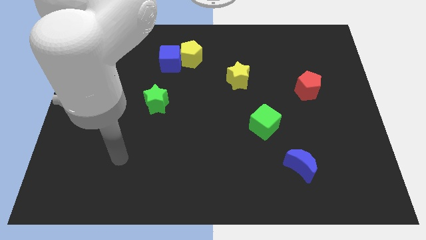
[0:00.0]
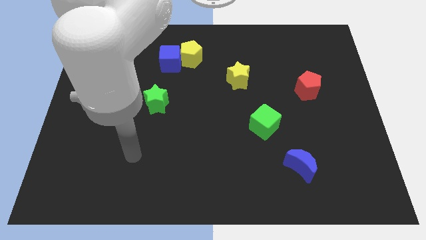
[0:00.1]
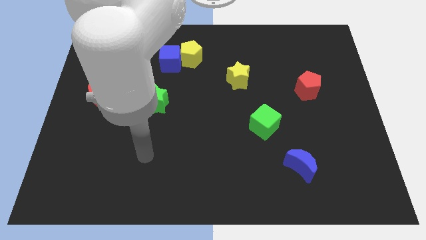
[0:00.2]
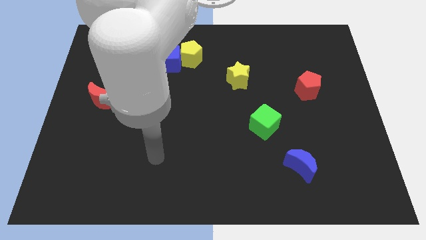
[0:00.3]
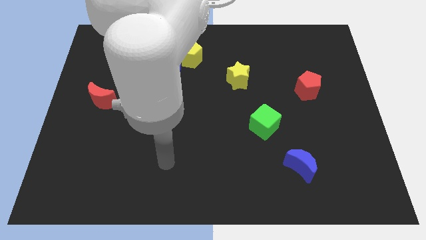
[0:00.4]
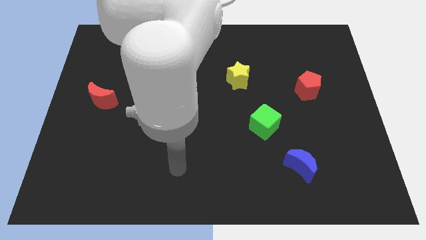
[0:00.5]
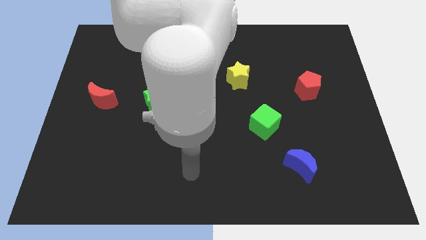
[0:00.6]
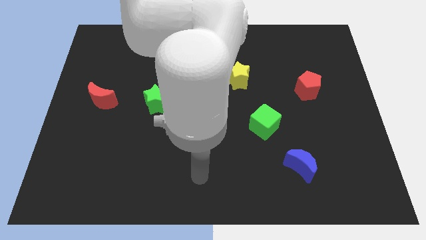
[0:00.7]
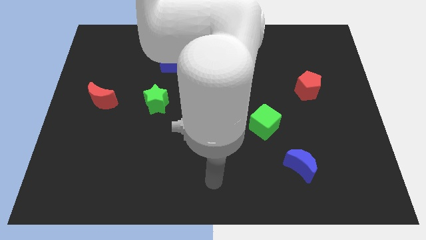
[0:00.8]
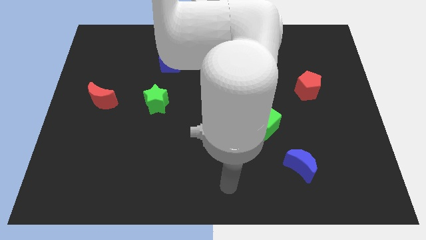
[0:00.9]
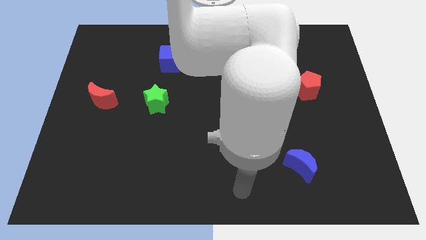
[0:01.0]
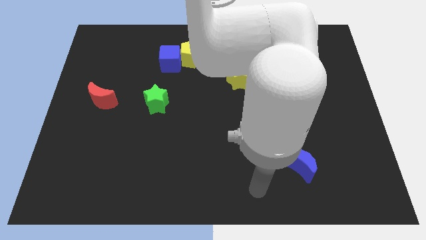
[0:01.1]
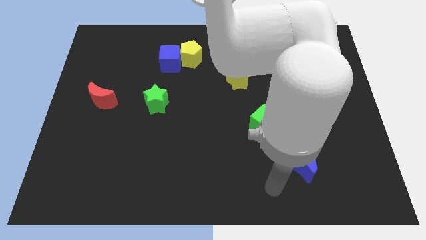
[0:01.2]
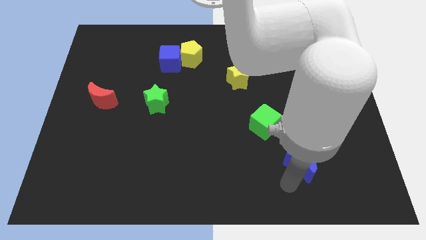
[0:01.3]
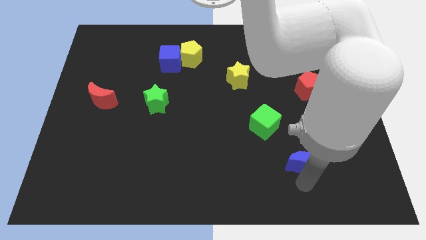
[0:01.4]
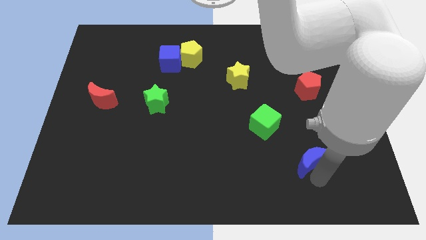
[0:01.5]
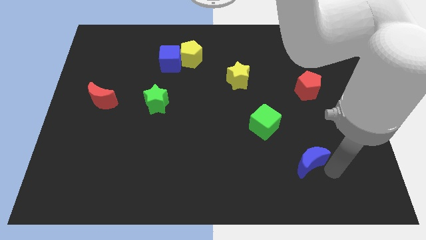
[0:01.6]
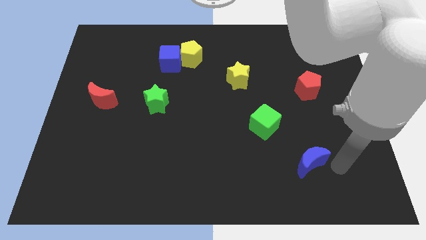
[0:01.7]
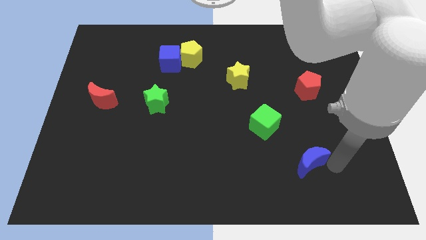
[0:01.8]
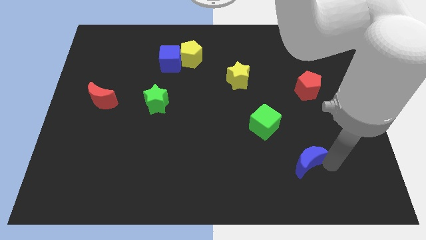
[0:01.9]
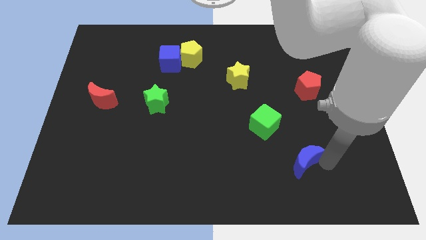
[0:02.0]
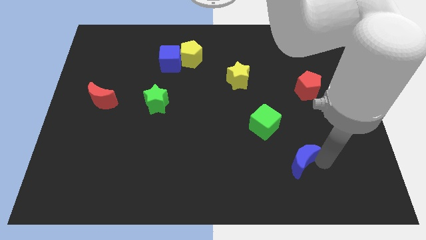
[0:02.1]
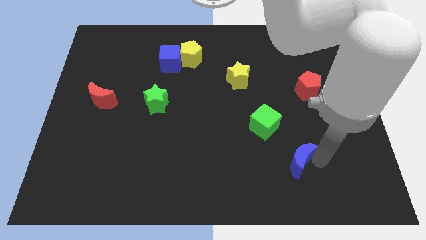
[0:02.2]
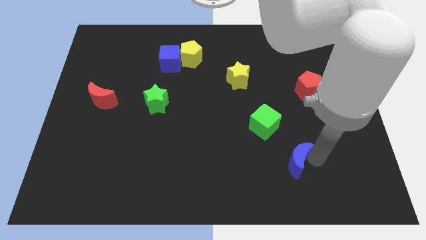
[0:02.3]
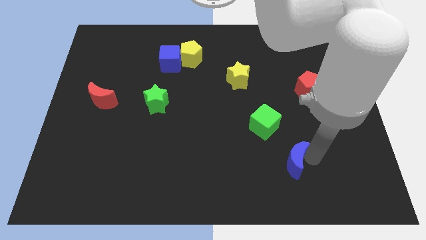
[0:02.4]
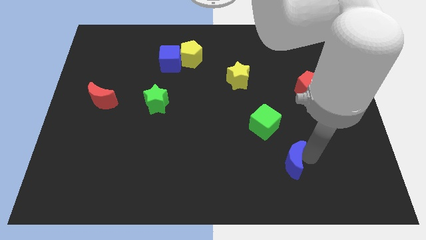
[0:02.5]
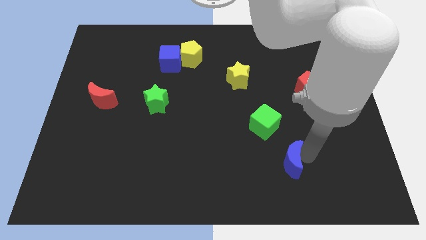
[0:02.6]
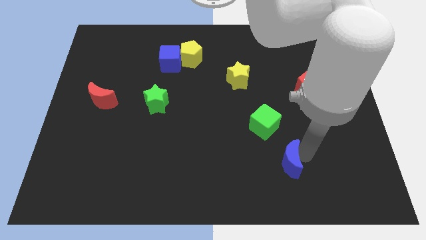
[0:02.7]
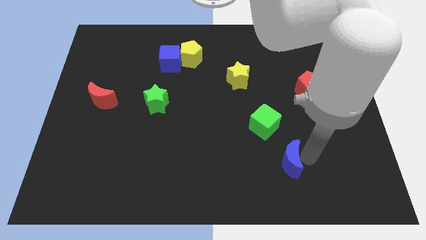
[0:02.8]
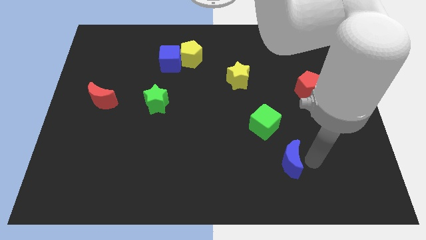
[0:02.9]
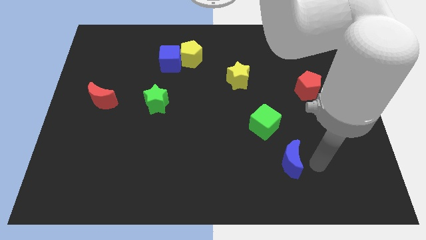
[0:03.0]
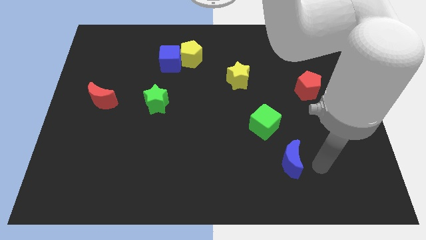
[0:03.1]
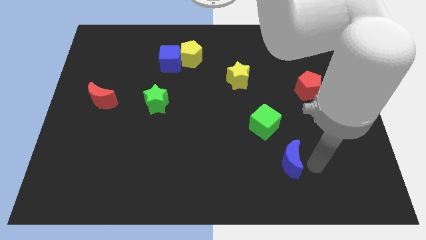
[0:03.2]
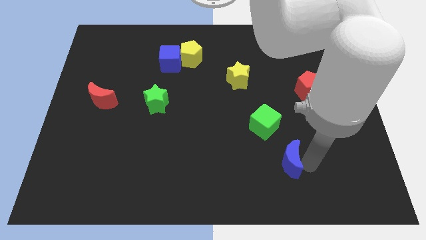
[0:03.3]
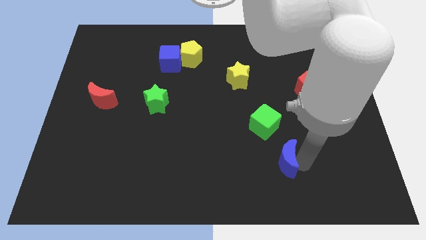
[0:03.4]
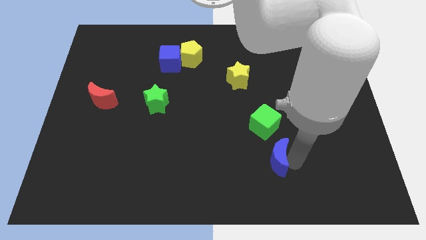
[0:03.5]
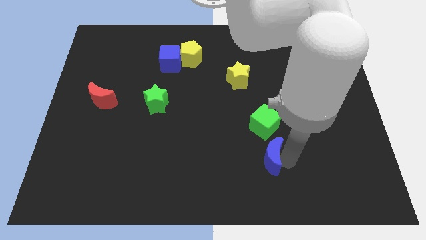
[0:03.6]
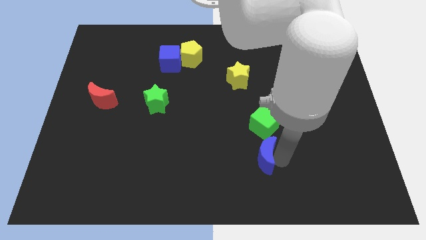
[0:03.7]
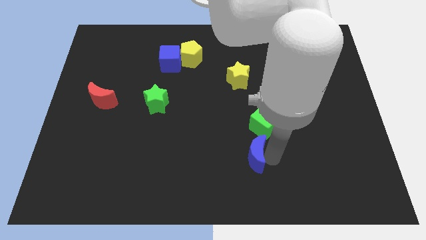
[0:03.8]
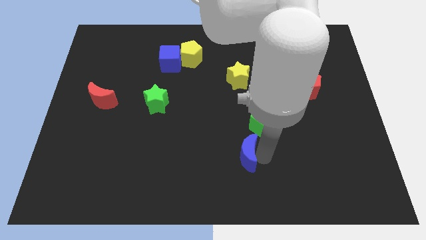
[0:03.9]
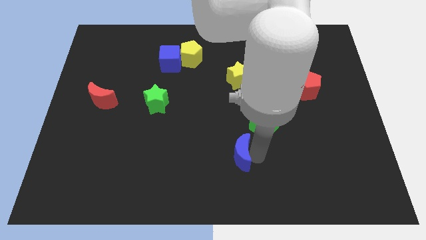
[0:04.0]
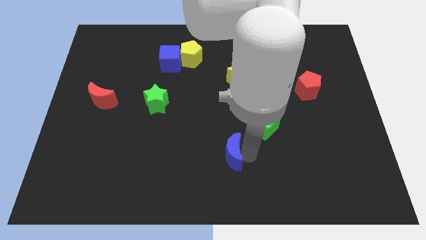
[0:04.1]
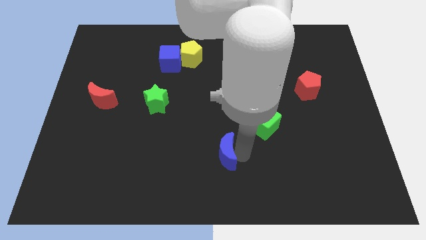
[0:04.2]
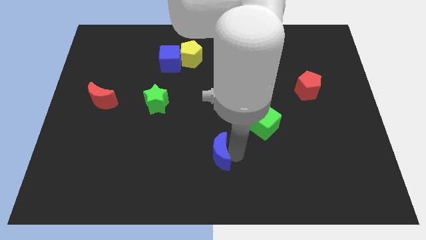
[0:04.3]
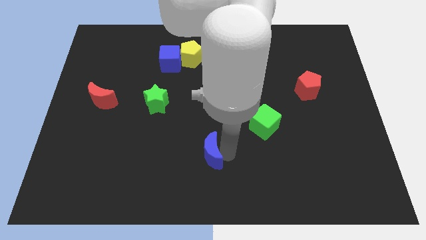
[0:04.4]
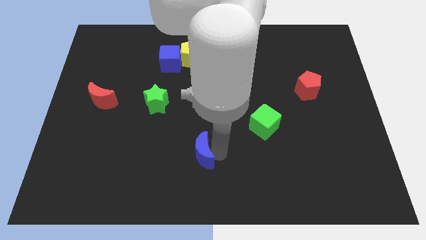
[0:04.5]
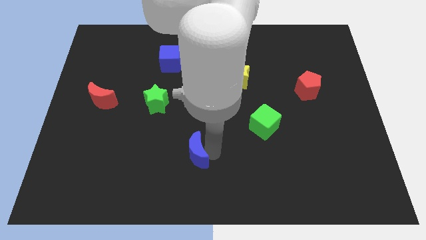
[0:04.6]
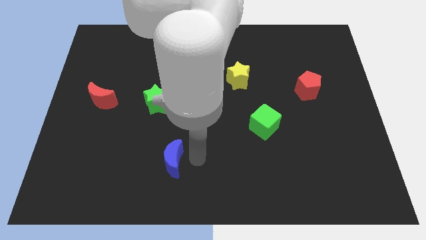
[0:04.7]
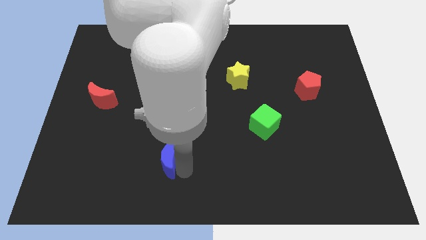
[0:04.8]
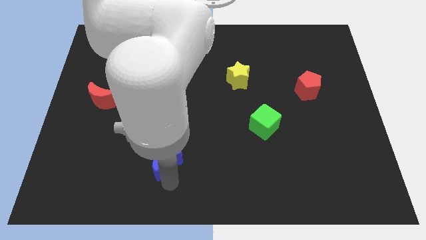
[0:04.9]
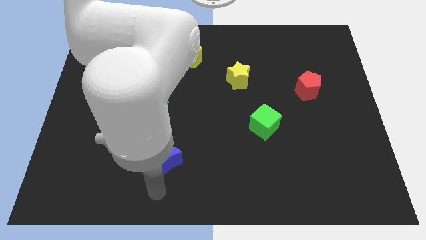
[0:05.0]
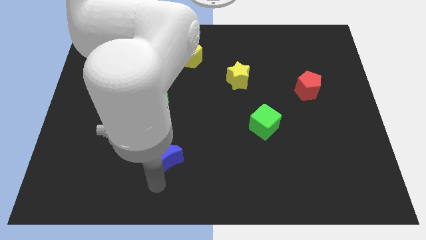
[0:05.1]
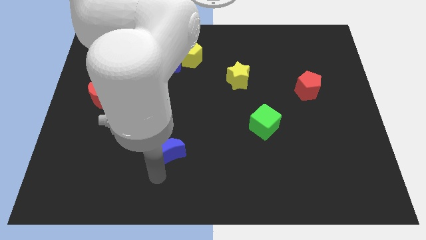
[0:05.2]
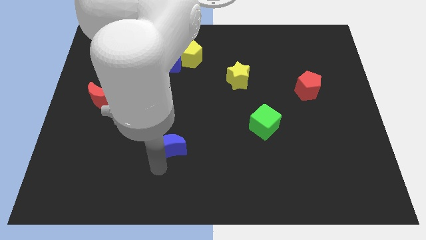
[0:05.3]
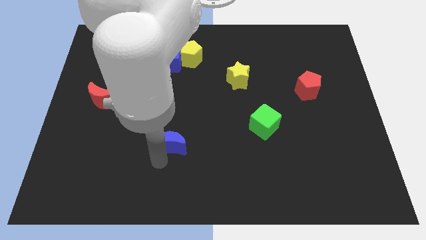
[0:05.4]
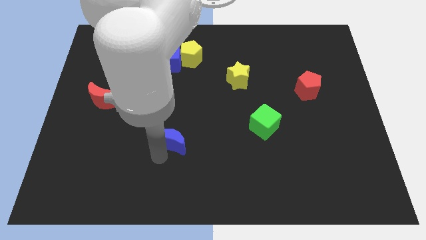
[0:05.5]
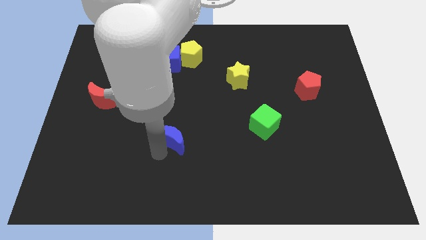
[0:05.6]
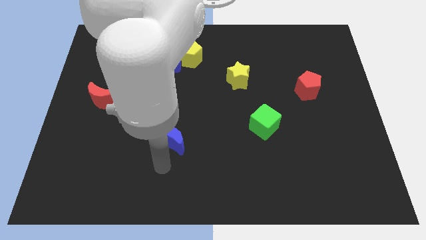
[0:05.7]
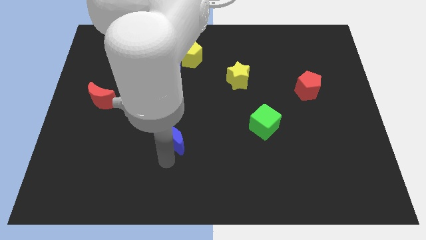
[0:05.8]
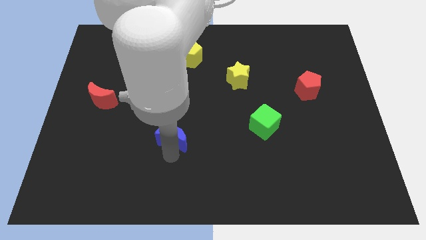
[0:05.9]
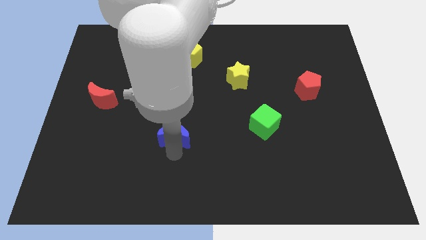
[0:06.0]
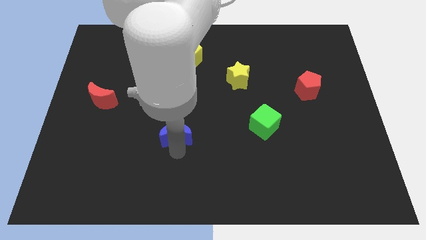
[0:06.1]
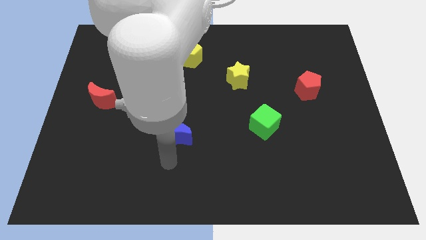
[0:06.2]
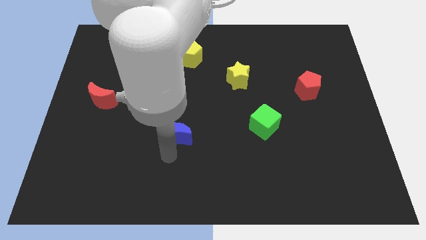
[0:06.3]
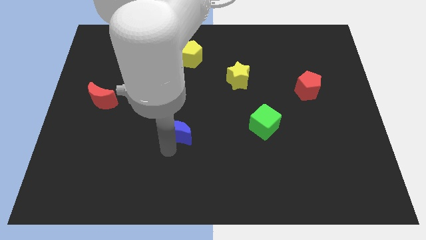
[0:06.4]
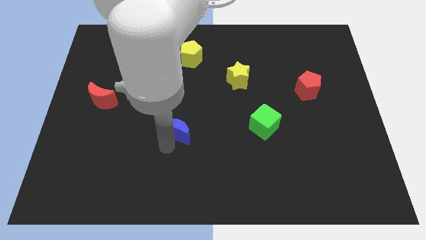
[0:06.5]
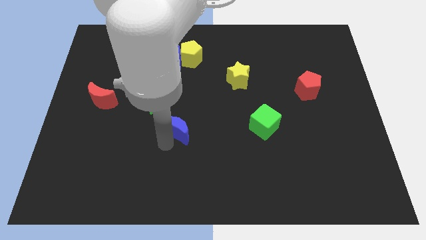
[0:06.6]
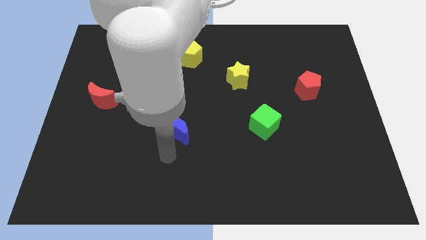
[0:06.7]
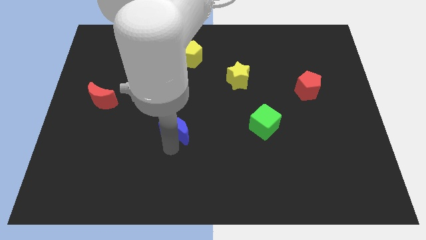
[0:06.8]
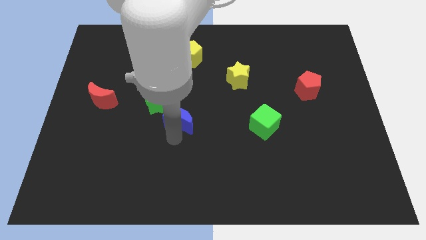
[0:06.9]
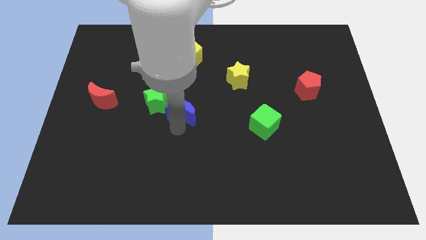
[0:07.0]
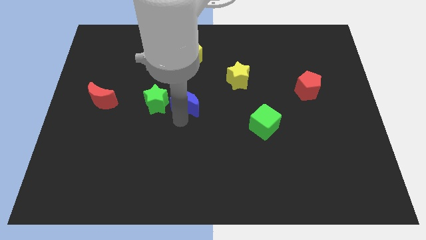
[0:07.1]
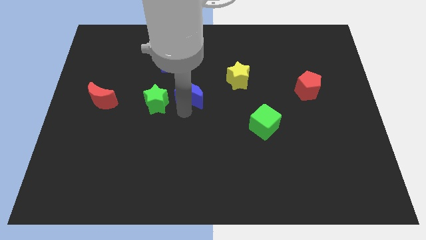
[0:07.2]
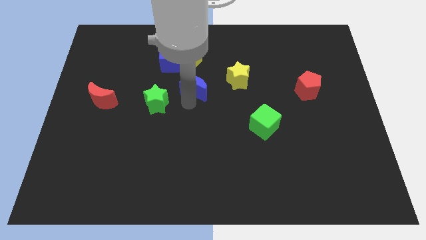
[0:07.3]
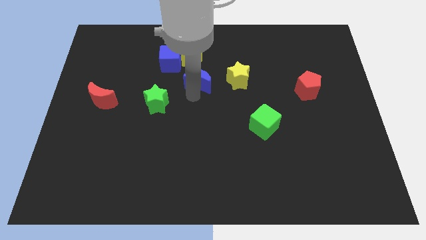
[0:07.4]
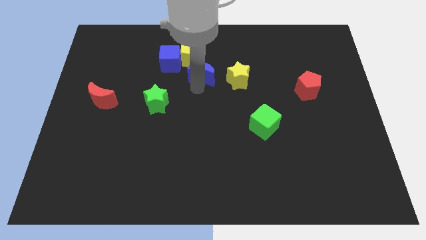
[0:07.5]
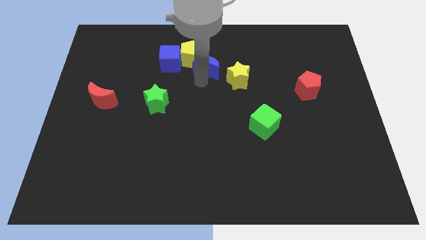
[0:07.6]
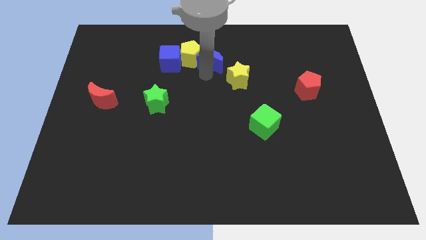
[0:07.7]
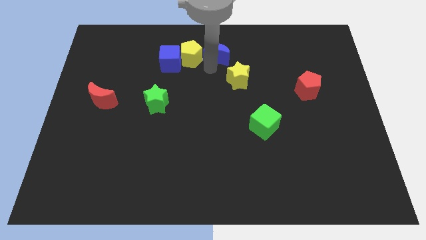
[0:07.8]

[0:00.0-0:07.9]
slide the blue moon to the top
